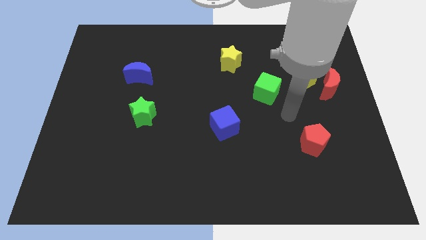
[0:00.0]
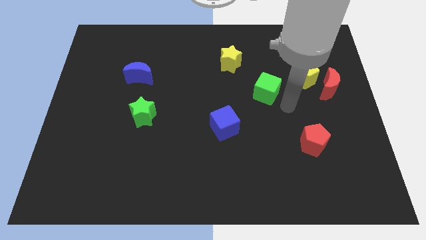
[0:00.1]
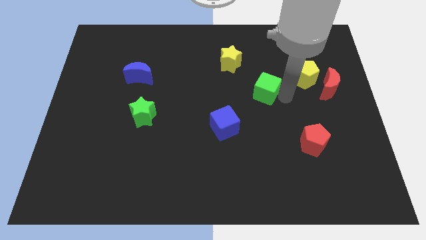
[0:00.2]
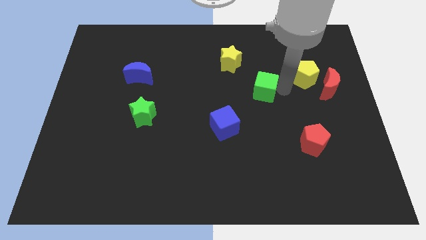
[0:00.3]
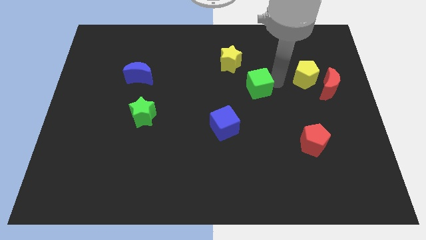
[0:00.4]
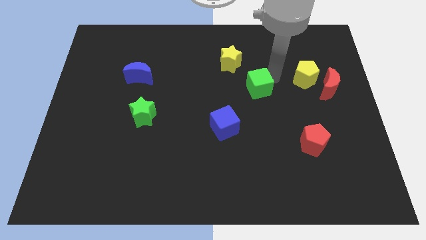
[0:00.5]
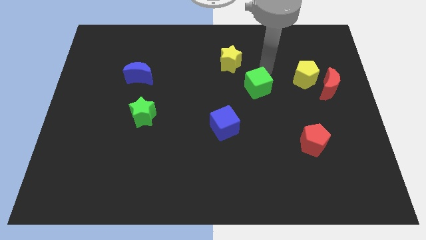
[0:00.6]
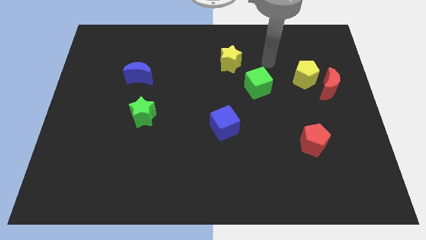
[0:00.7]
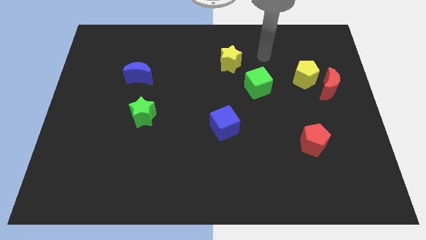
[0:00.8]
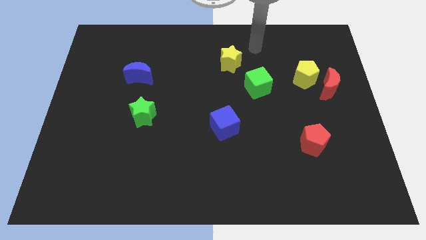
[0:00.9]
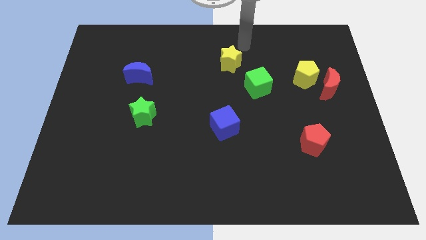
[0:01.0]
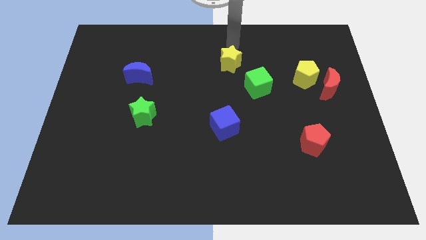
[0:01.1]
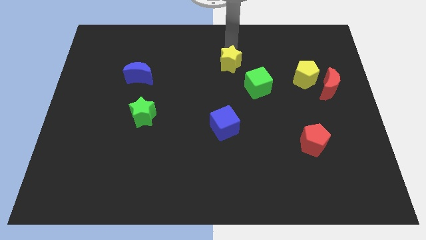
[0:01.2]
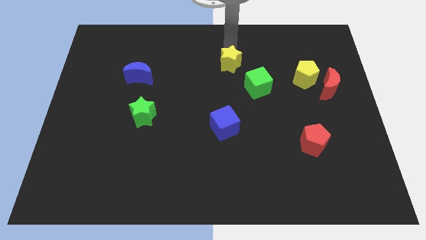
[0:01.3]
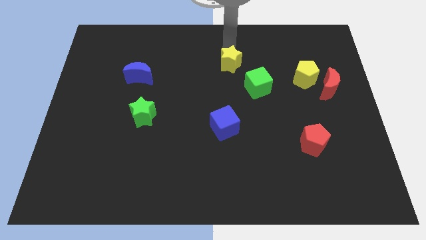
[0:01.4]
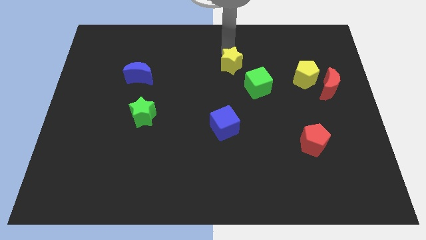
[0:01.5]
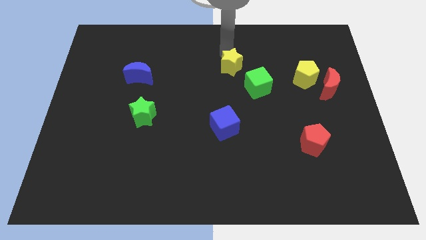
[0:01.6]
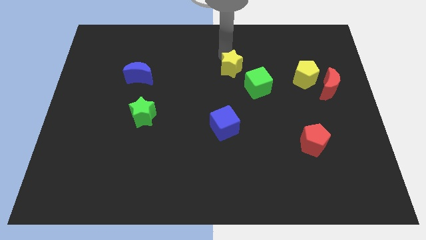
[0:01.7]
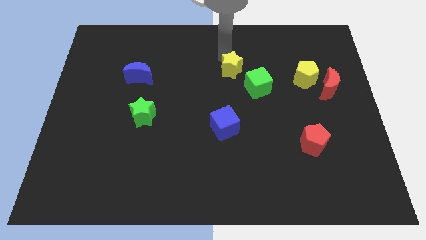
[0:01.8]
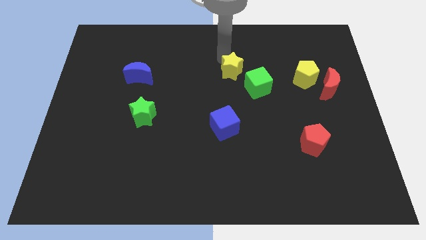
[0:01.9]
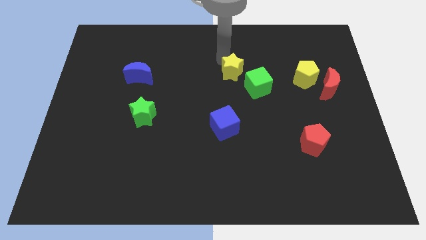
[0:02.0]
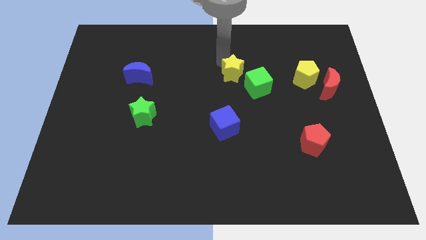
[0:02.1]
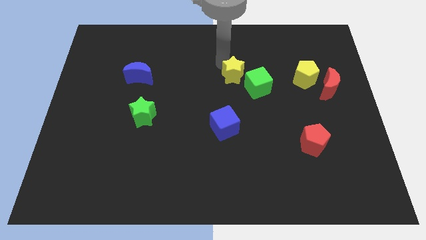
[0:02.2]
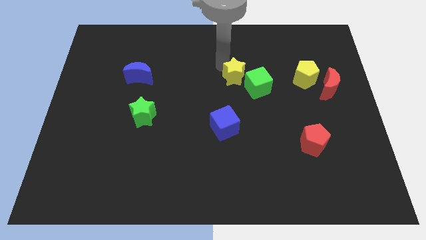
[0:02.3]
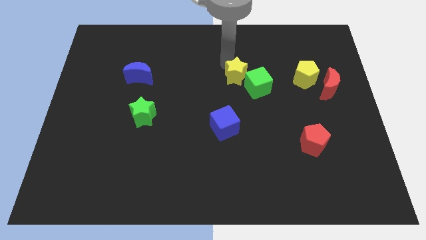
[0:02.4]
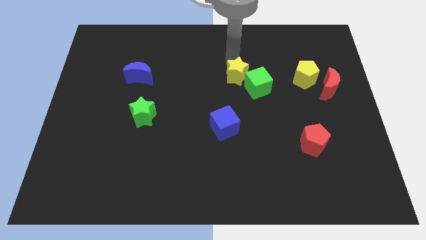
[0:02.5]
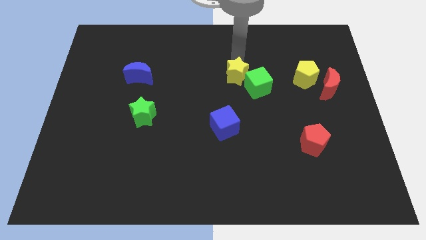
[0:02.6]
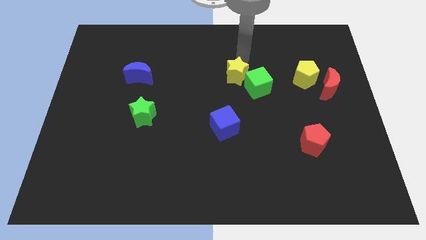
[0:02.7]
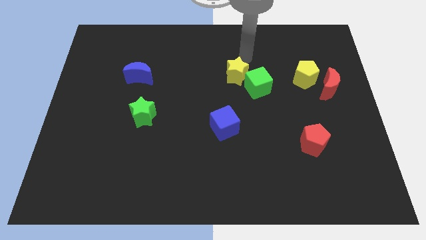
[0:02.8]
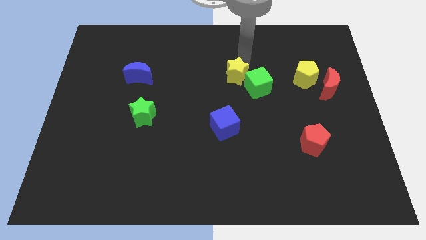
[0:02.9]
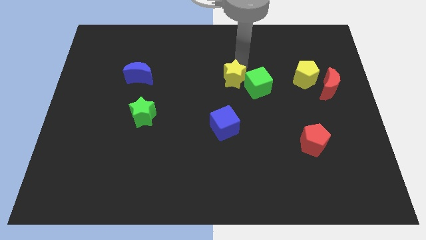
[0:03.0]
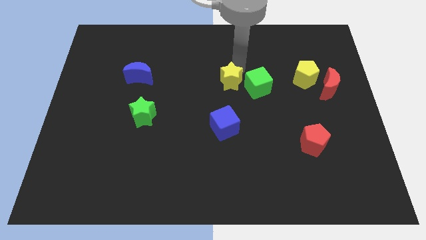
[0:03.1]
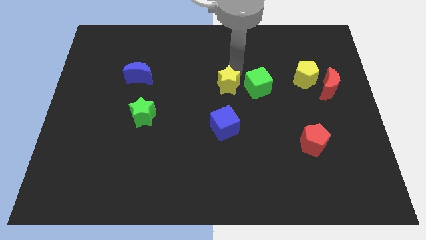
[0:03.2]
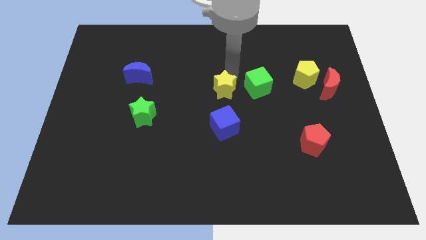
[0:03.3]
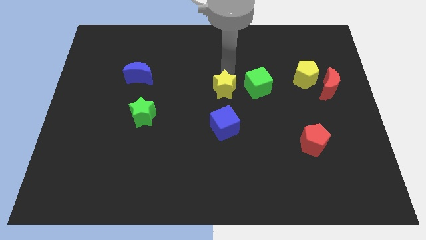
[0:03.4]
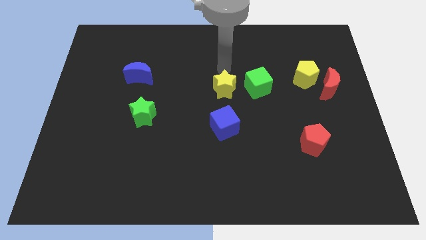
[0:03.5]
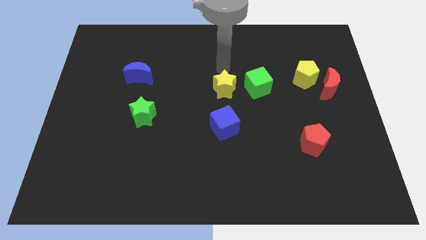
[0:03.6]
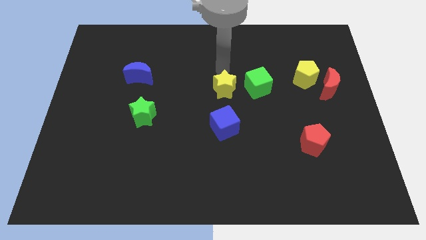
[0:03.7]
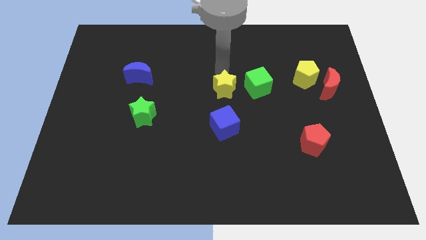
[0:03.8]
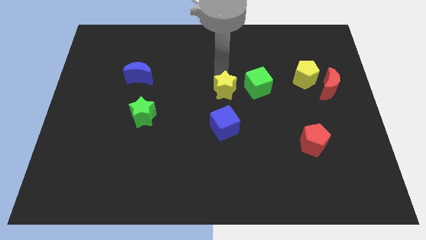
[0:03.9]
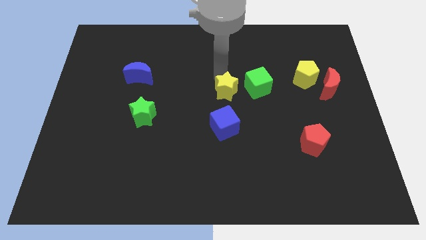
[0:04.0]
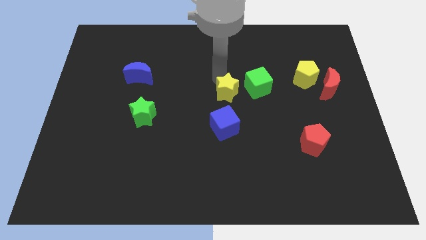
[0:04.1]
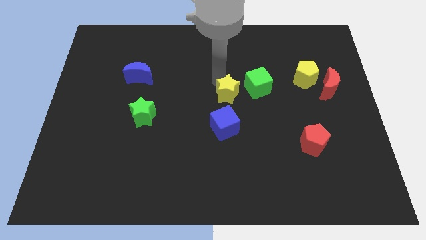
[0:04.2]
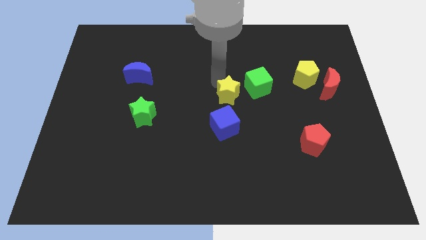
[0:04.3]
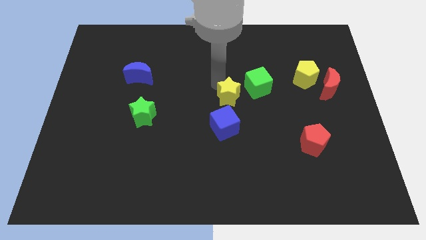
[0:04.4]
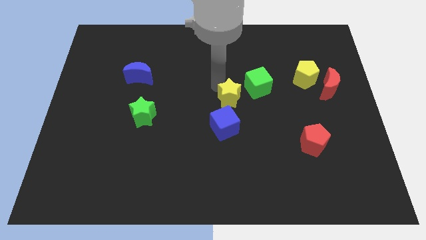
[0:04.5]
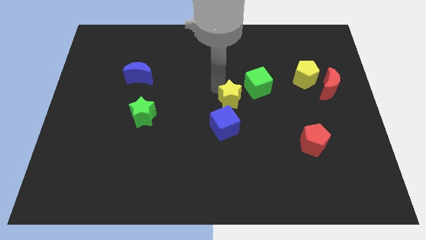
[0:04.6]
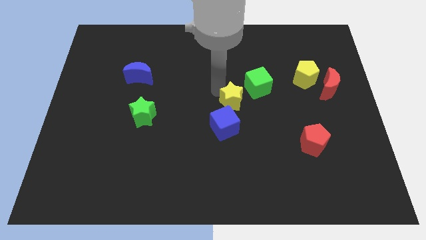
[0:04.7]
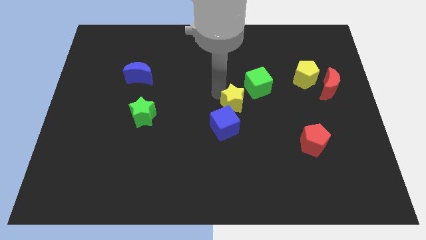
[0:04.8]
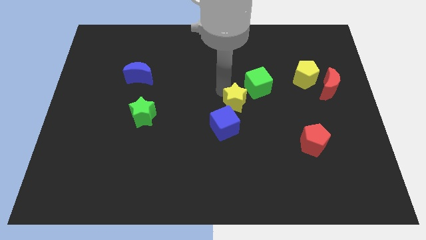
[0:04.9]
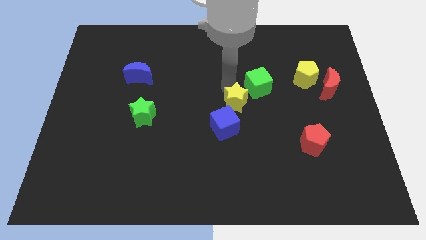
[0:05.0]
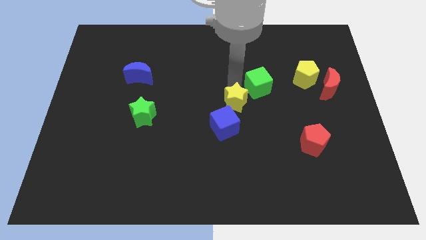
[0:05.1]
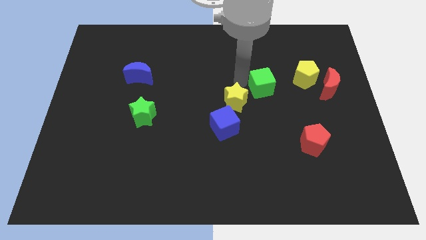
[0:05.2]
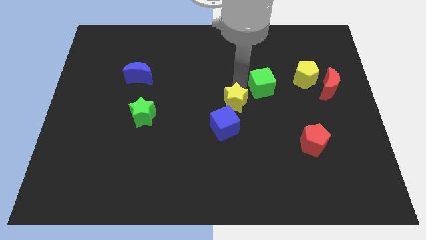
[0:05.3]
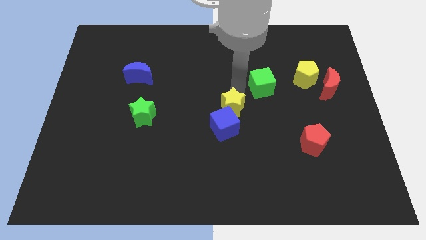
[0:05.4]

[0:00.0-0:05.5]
push the yellow star next to the blue cube

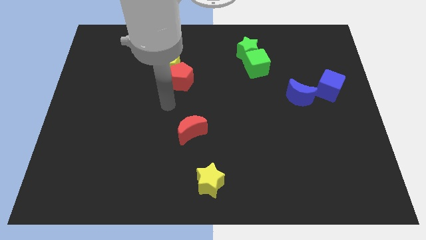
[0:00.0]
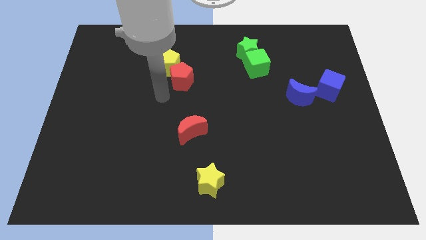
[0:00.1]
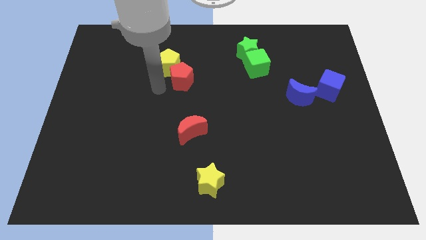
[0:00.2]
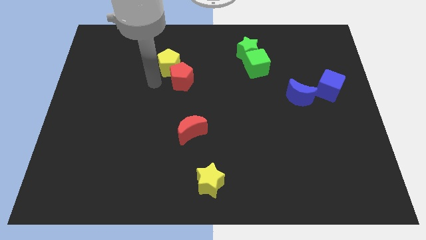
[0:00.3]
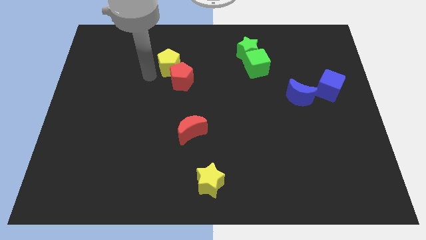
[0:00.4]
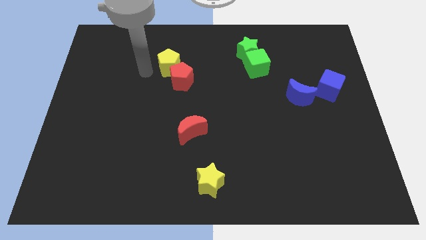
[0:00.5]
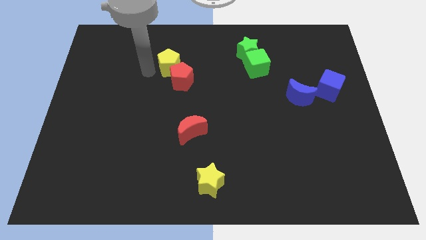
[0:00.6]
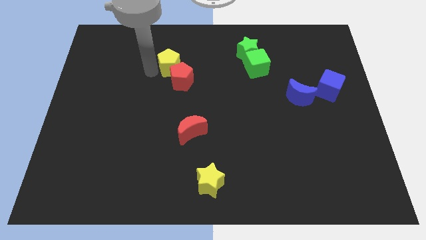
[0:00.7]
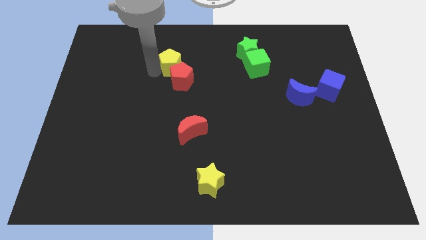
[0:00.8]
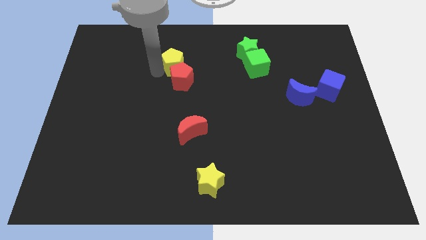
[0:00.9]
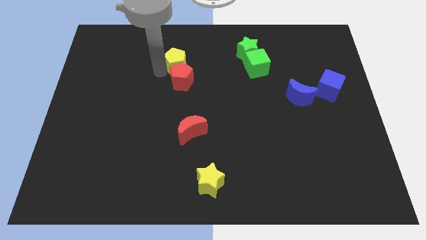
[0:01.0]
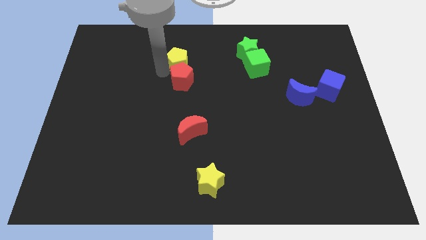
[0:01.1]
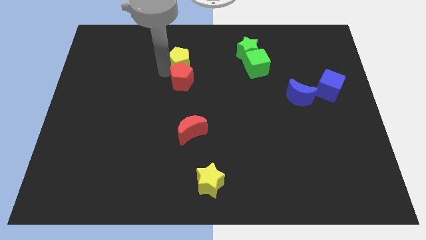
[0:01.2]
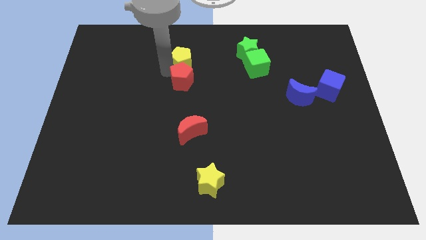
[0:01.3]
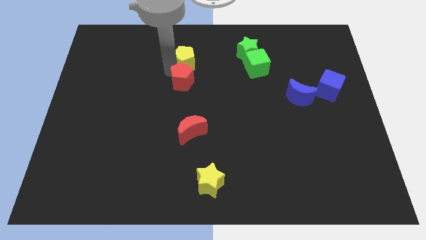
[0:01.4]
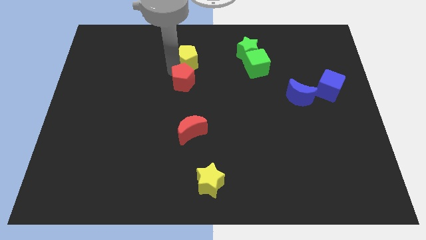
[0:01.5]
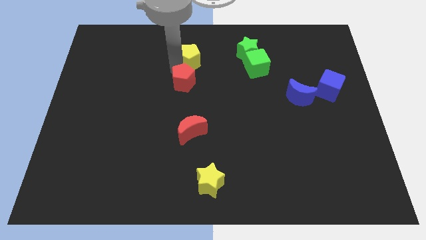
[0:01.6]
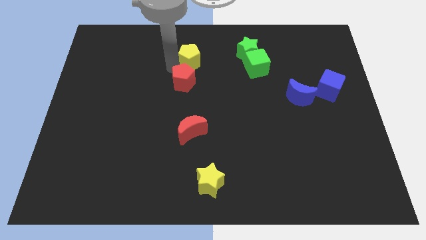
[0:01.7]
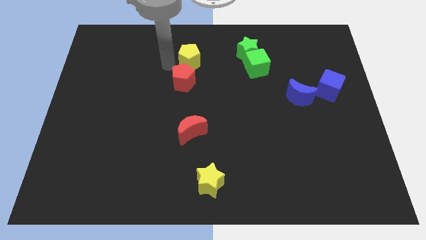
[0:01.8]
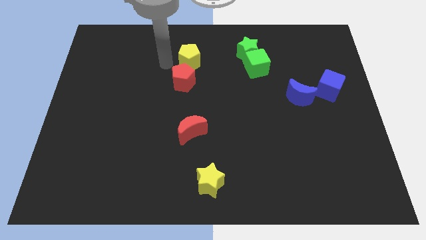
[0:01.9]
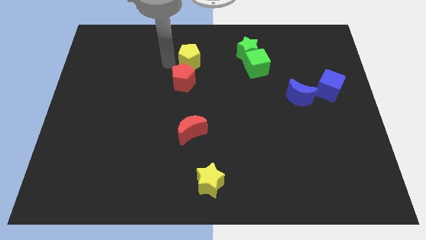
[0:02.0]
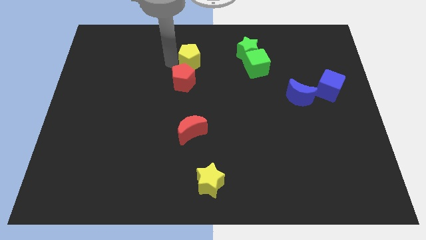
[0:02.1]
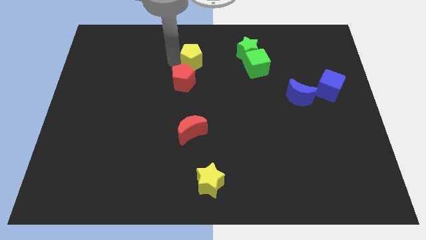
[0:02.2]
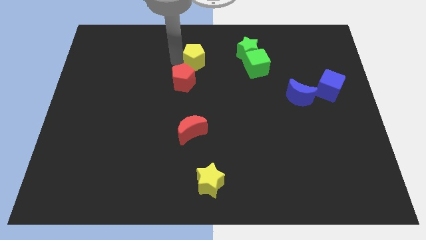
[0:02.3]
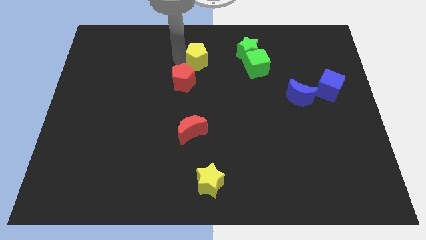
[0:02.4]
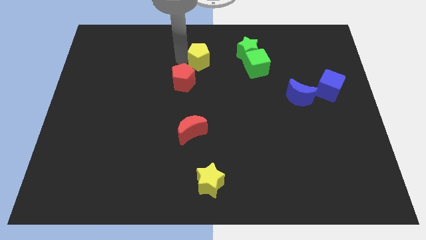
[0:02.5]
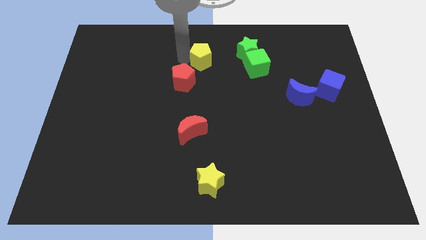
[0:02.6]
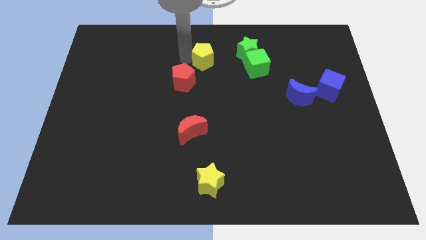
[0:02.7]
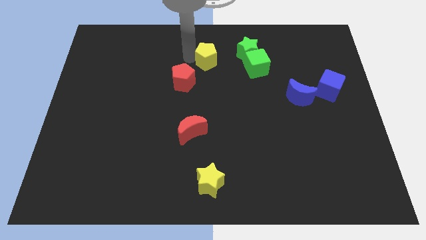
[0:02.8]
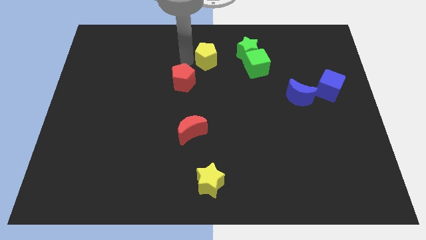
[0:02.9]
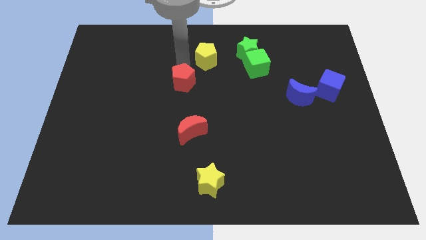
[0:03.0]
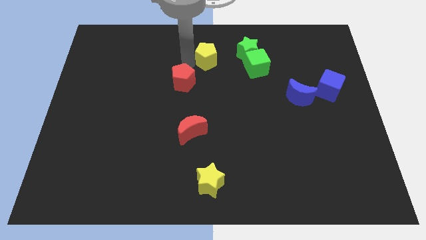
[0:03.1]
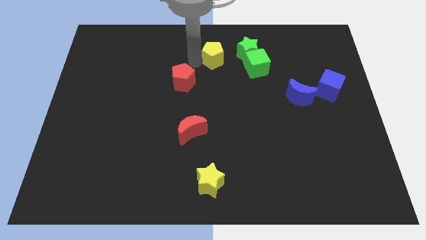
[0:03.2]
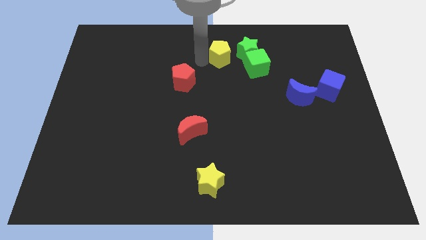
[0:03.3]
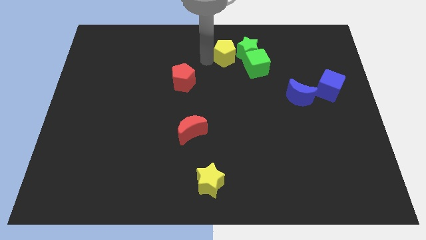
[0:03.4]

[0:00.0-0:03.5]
put the yellow pentagon towards the green star
